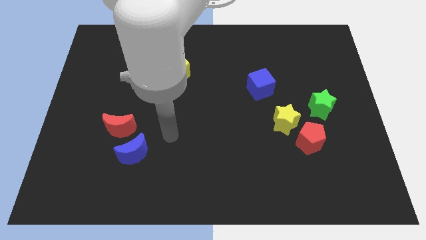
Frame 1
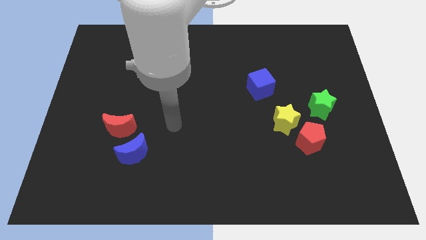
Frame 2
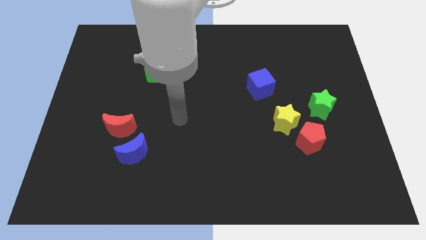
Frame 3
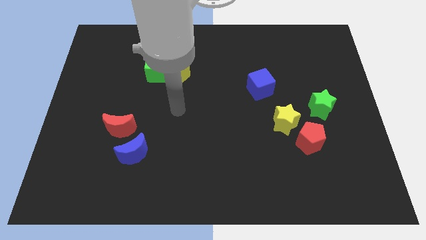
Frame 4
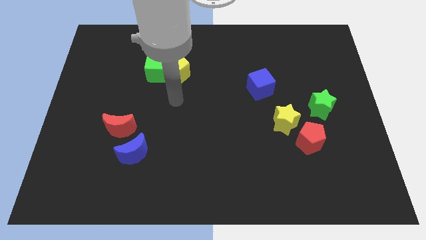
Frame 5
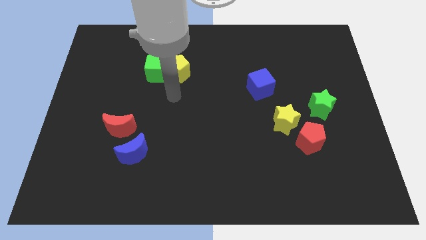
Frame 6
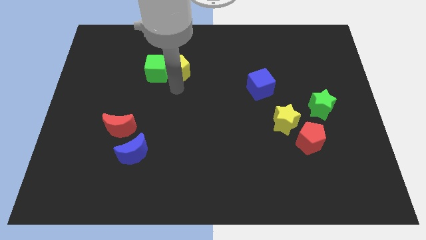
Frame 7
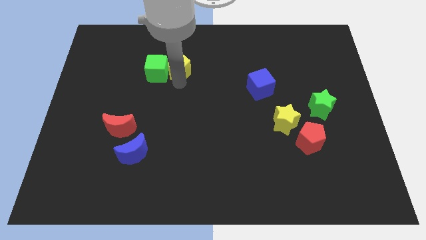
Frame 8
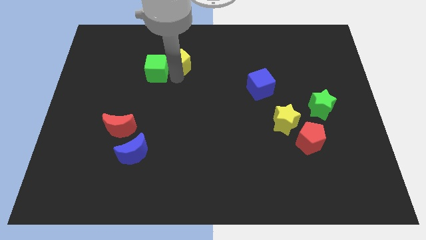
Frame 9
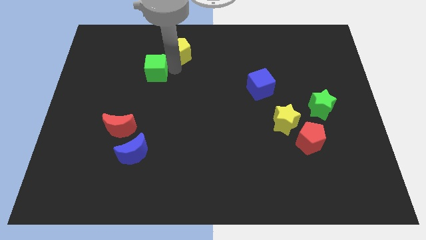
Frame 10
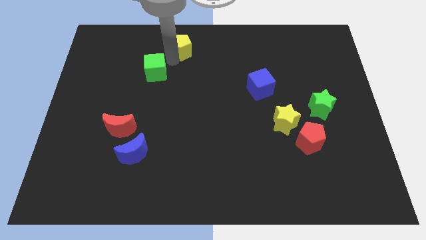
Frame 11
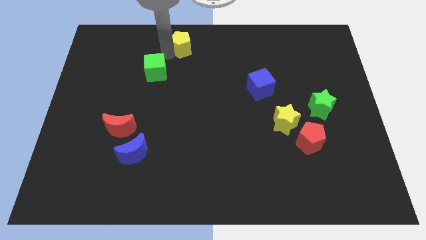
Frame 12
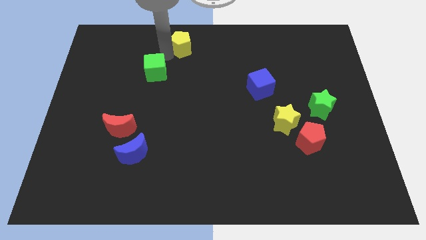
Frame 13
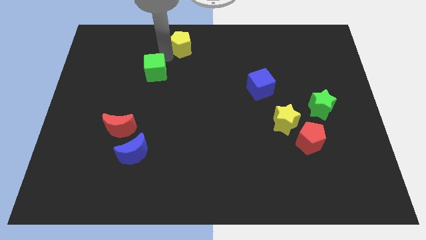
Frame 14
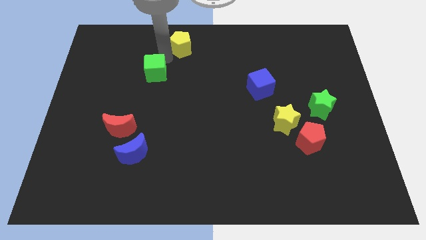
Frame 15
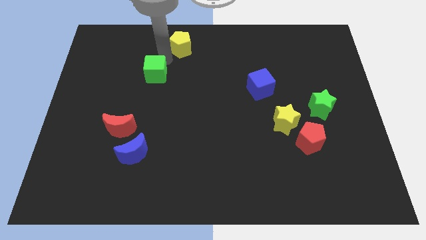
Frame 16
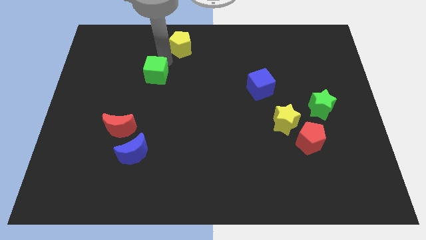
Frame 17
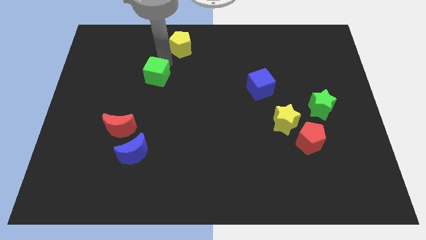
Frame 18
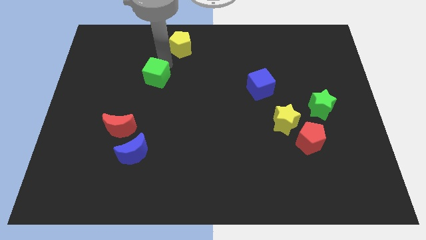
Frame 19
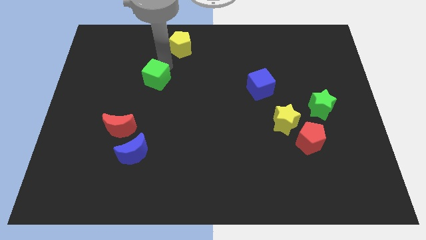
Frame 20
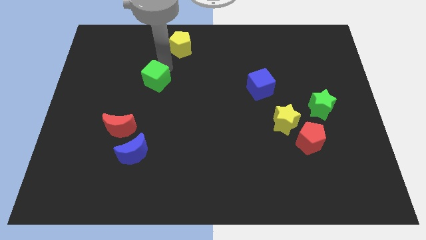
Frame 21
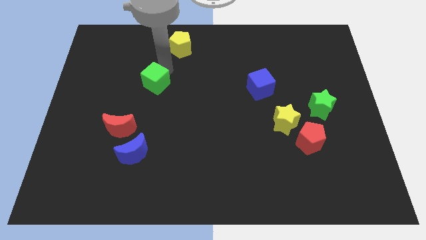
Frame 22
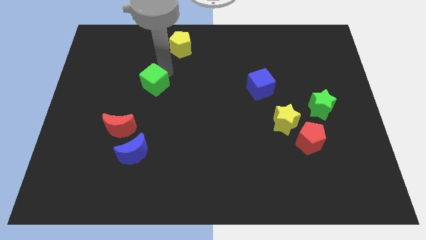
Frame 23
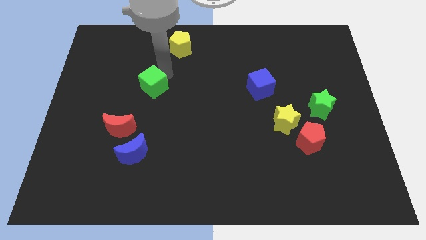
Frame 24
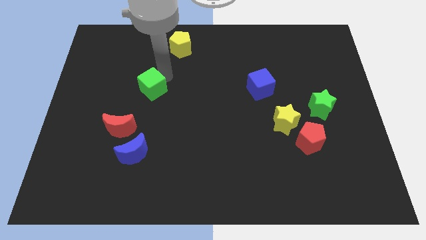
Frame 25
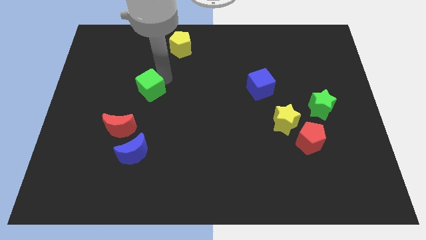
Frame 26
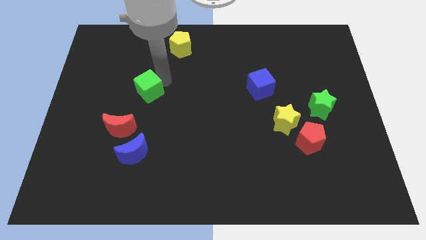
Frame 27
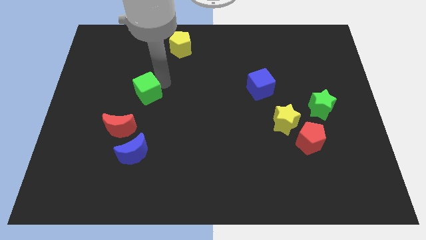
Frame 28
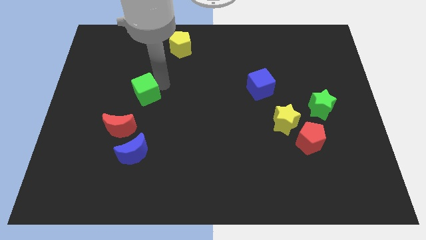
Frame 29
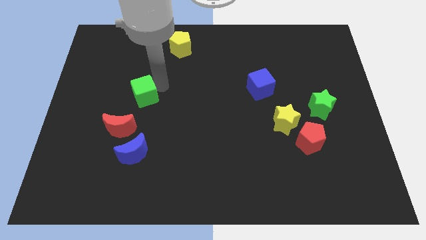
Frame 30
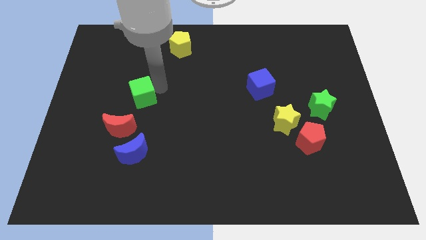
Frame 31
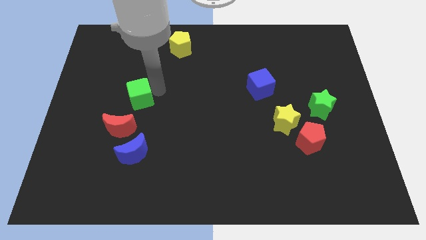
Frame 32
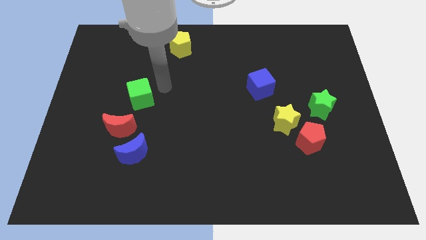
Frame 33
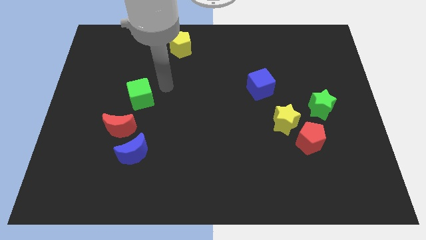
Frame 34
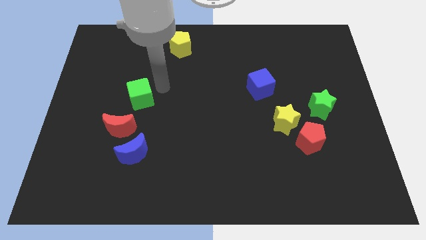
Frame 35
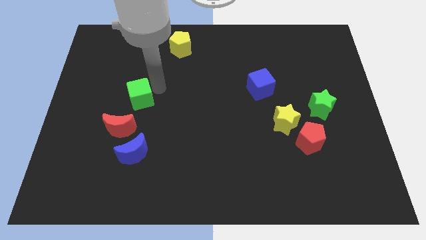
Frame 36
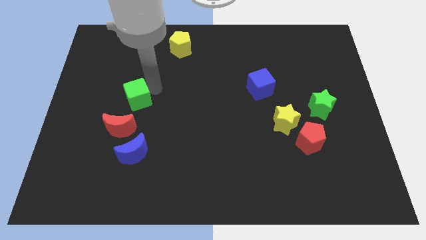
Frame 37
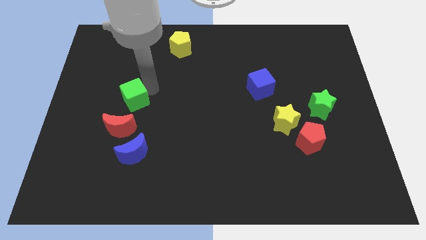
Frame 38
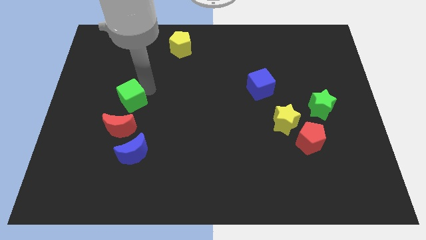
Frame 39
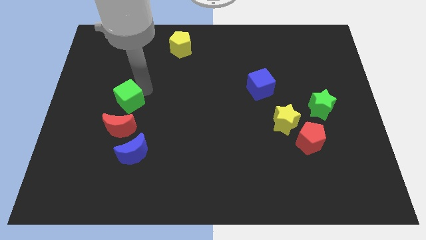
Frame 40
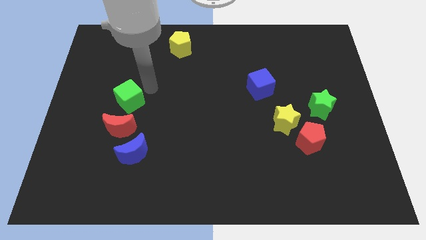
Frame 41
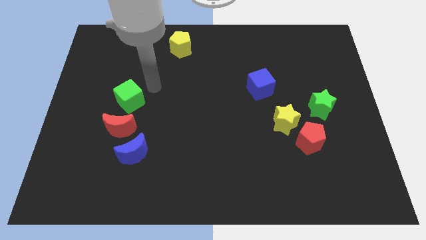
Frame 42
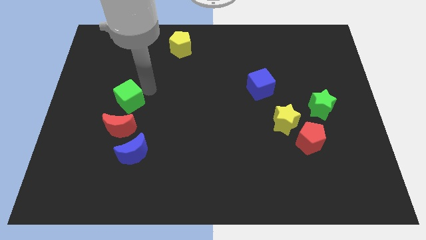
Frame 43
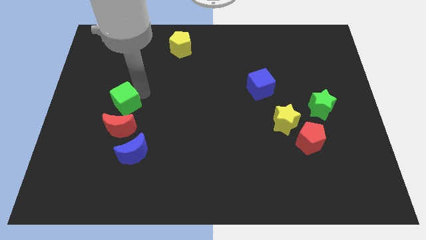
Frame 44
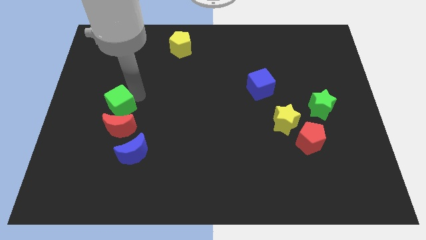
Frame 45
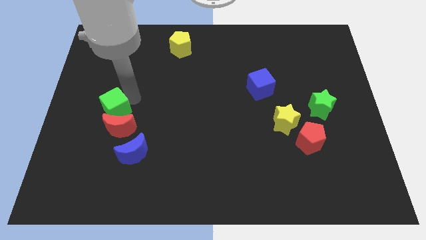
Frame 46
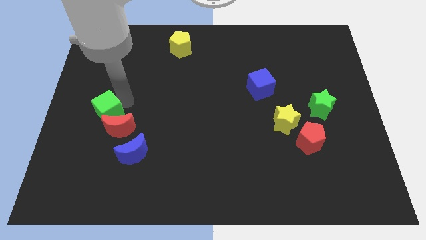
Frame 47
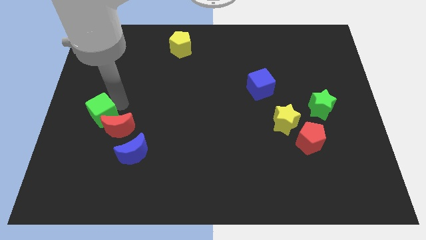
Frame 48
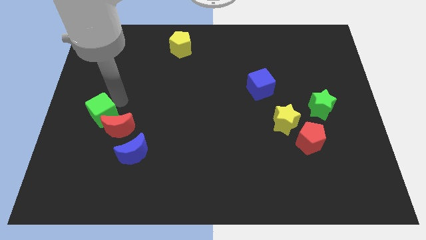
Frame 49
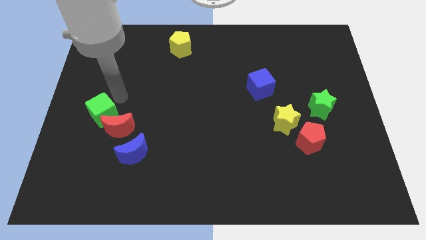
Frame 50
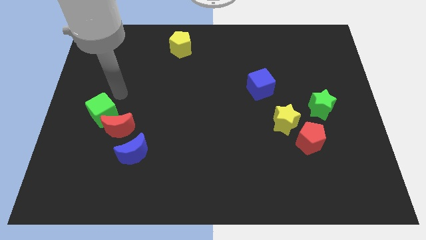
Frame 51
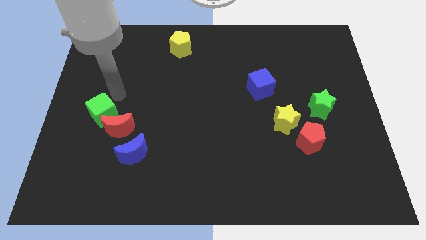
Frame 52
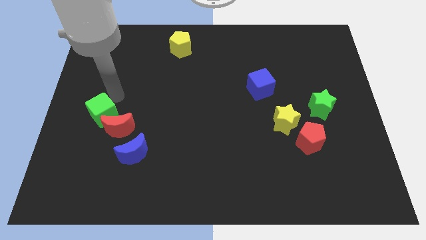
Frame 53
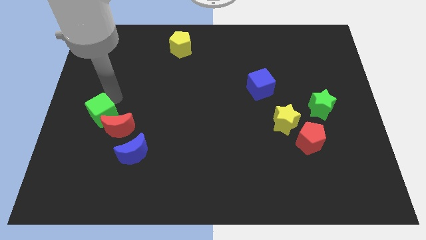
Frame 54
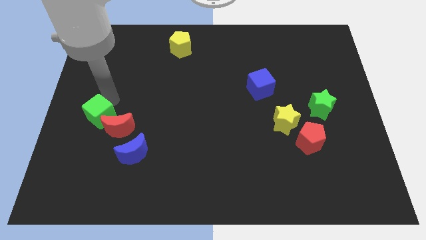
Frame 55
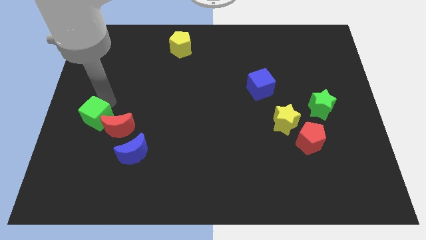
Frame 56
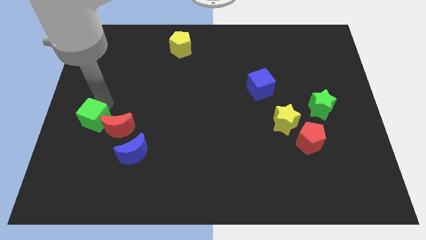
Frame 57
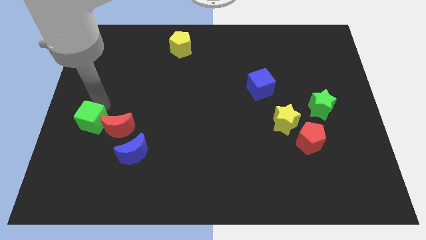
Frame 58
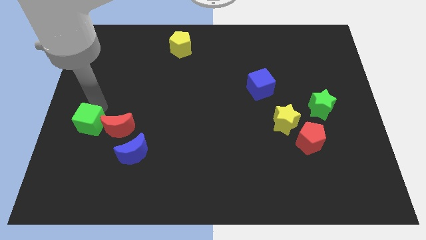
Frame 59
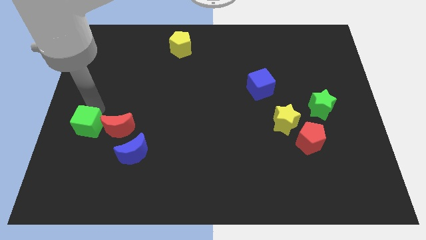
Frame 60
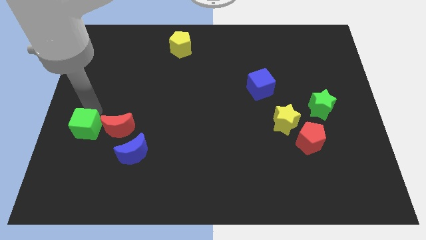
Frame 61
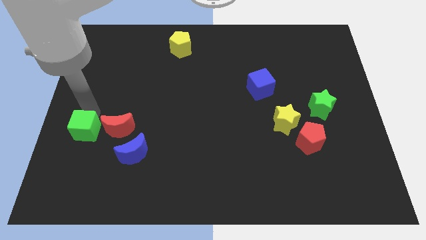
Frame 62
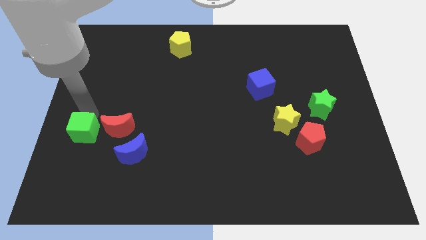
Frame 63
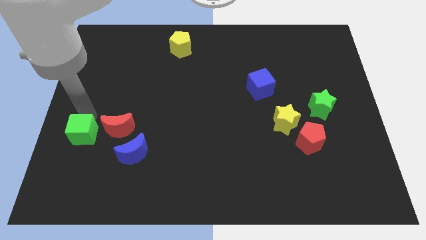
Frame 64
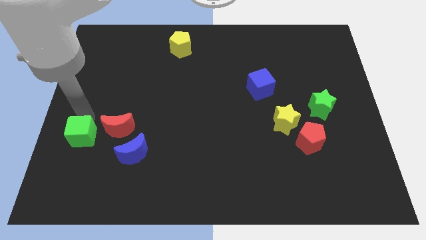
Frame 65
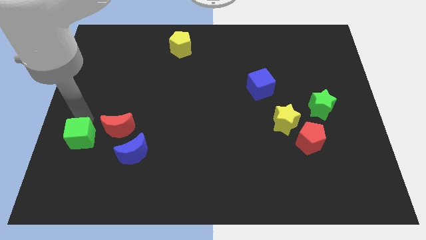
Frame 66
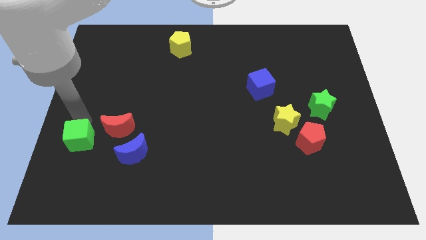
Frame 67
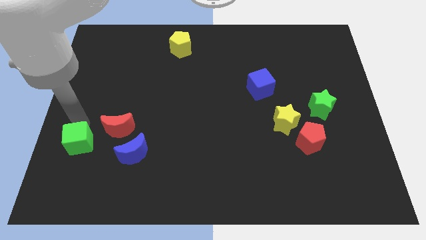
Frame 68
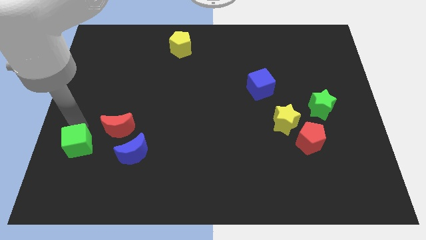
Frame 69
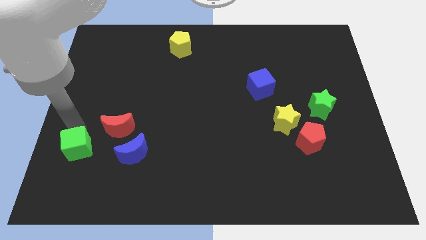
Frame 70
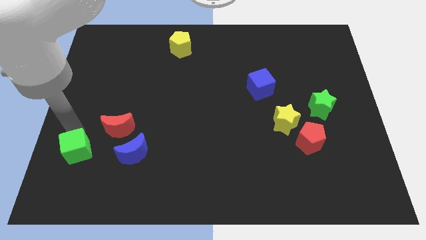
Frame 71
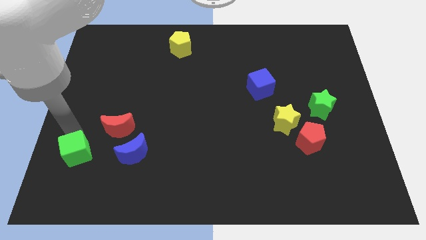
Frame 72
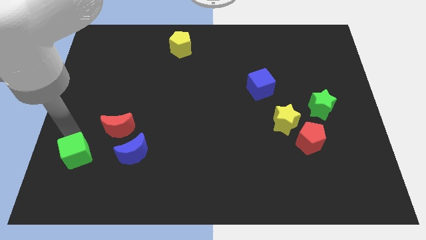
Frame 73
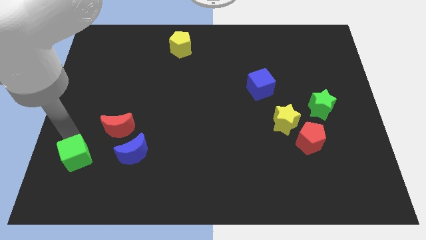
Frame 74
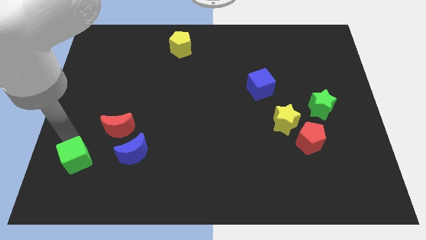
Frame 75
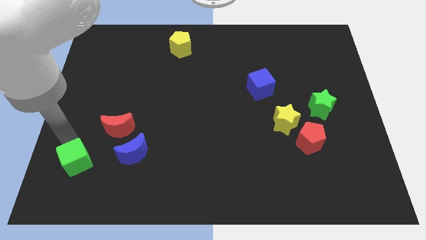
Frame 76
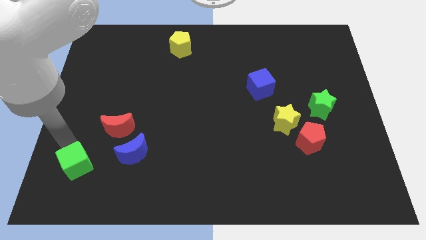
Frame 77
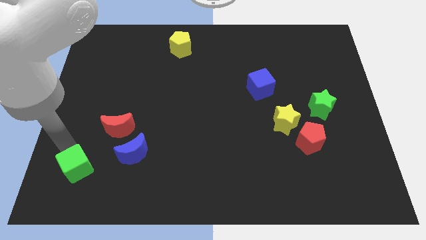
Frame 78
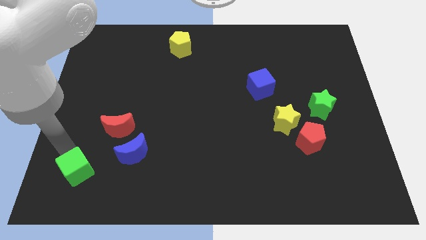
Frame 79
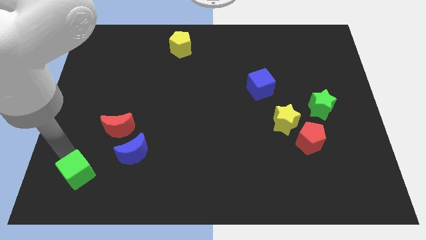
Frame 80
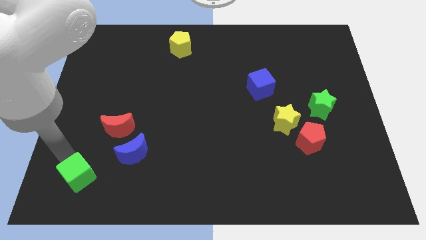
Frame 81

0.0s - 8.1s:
push the green cube to the bottom left side of the blue moon

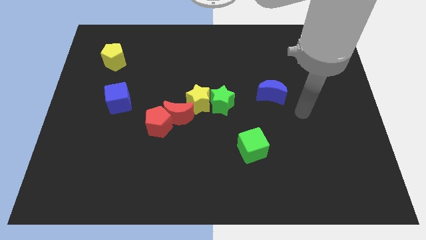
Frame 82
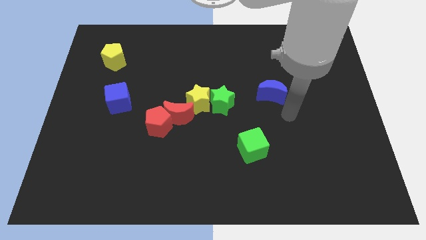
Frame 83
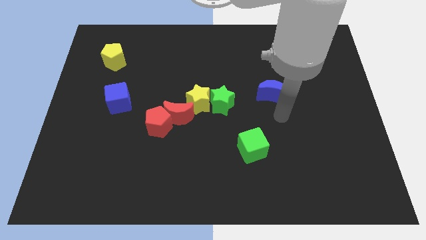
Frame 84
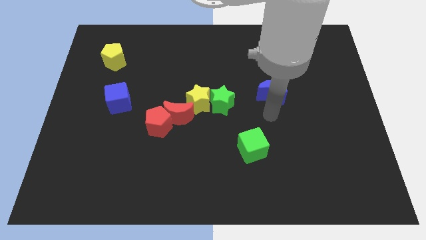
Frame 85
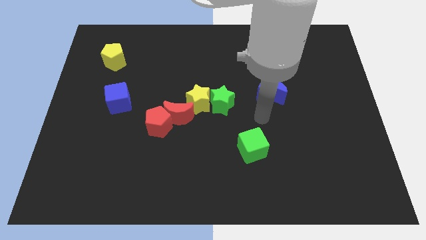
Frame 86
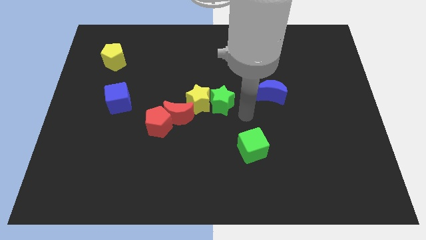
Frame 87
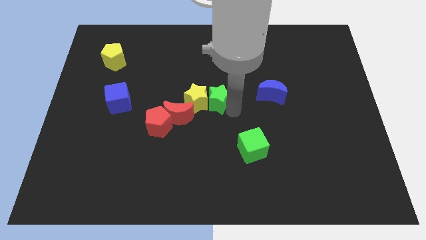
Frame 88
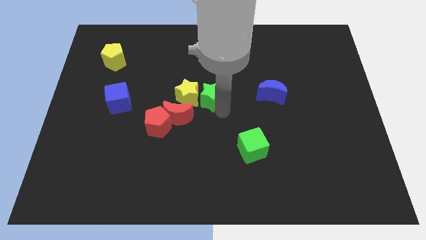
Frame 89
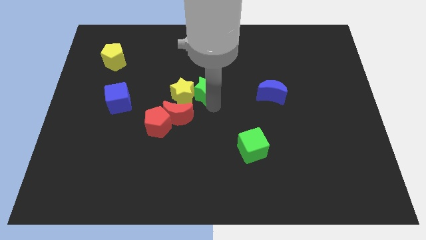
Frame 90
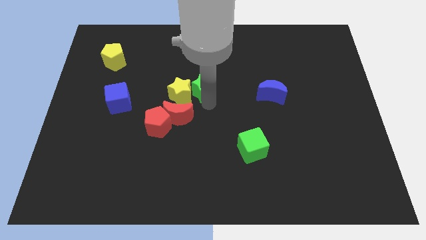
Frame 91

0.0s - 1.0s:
move the yellow star to the top side of the red pentagon
